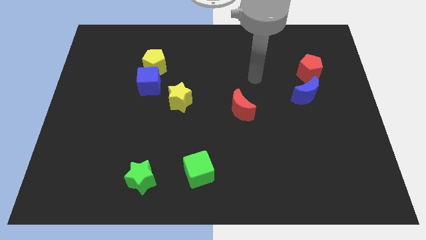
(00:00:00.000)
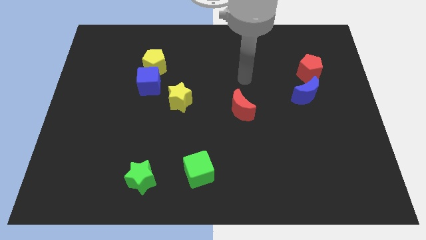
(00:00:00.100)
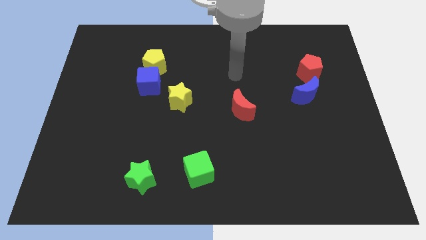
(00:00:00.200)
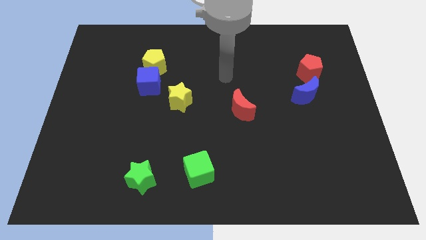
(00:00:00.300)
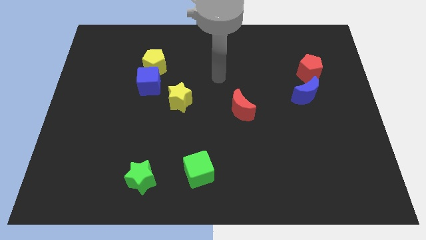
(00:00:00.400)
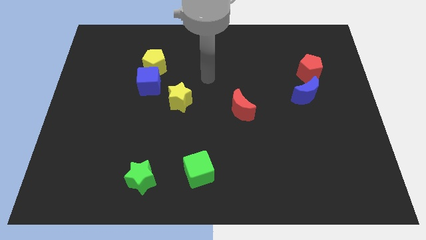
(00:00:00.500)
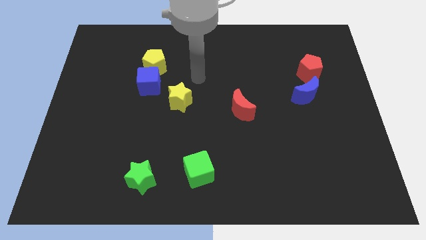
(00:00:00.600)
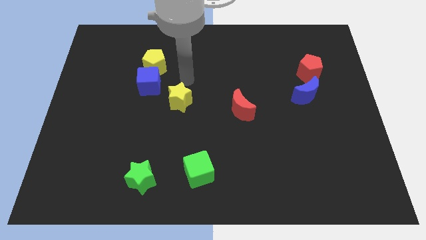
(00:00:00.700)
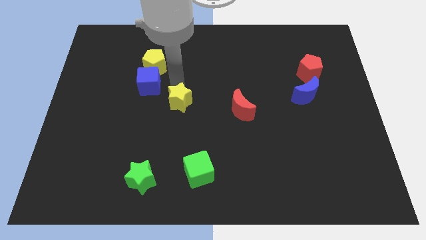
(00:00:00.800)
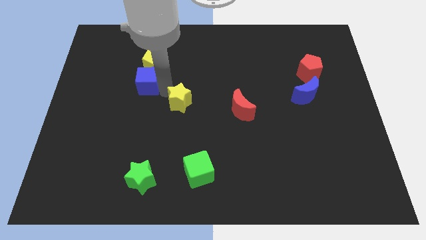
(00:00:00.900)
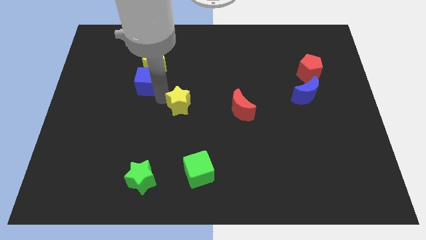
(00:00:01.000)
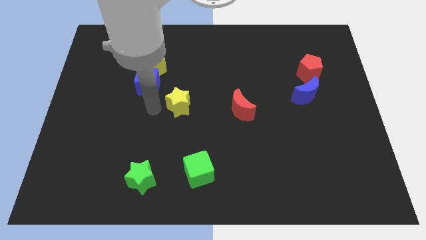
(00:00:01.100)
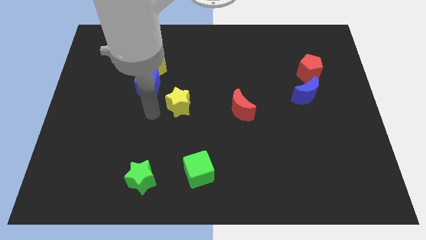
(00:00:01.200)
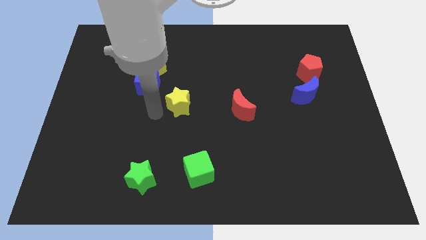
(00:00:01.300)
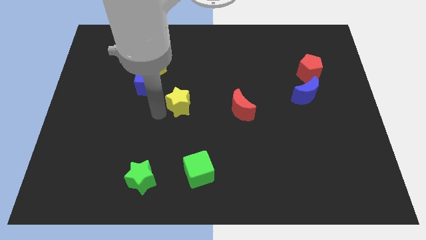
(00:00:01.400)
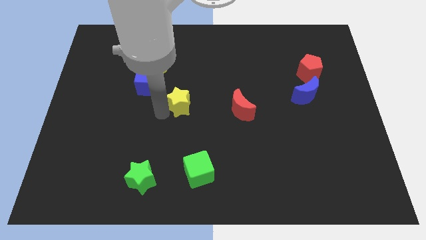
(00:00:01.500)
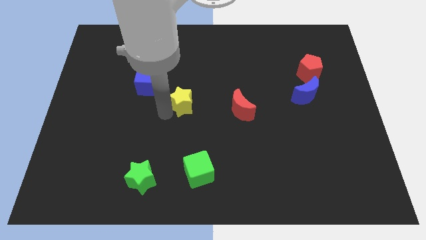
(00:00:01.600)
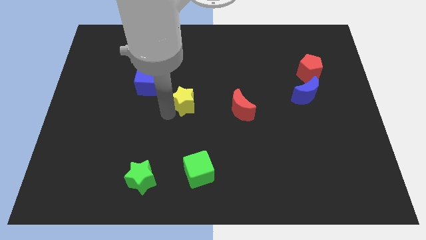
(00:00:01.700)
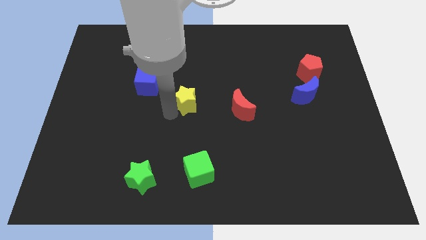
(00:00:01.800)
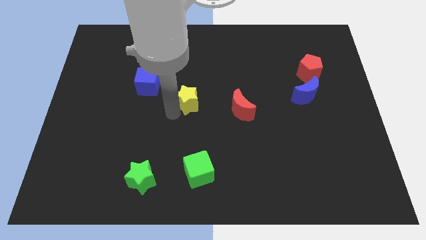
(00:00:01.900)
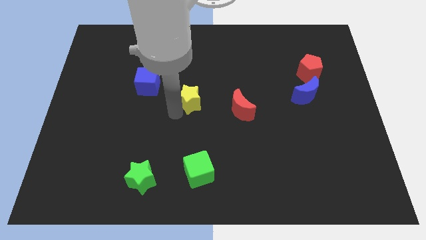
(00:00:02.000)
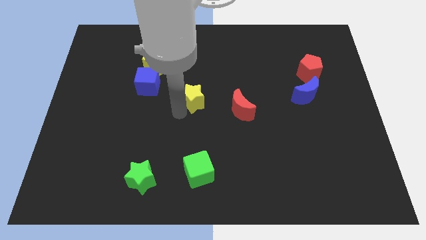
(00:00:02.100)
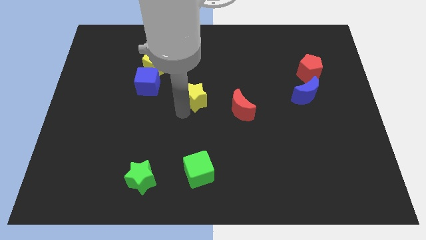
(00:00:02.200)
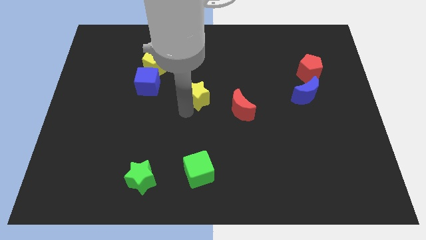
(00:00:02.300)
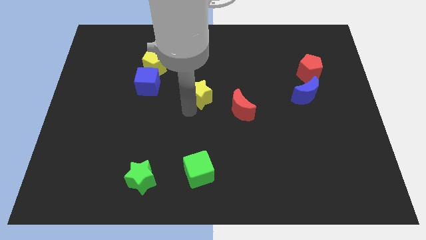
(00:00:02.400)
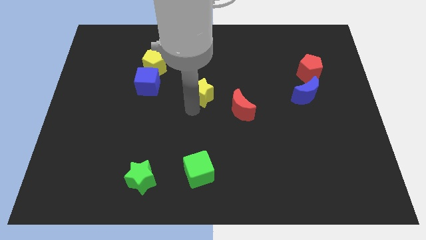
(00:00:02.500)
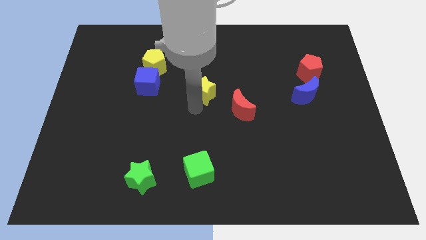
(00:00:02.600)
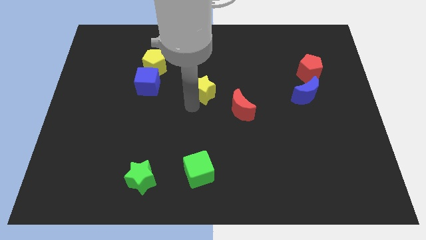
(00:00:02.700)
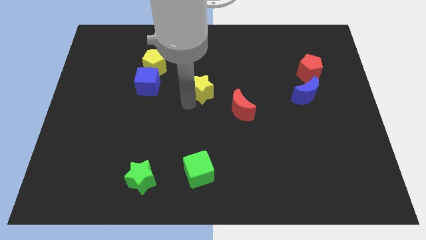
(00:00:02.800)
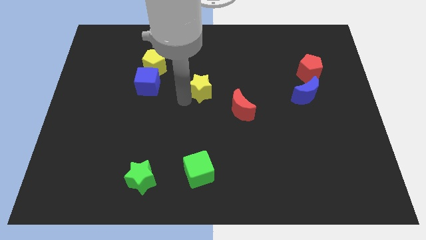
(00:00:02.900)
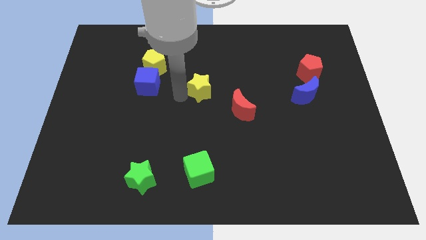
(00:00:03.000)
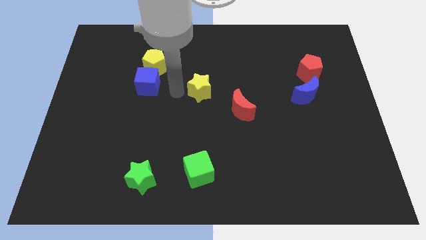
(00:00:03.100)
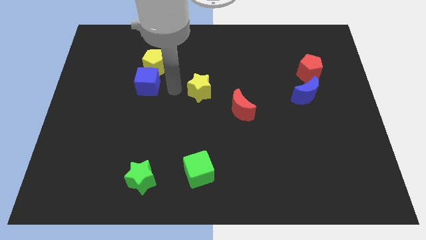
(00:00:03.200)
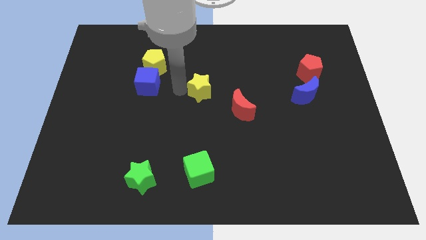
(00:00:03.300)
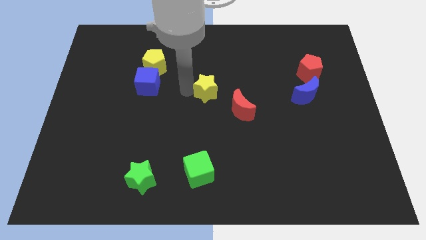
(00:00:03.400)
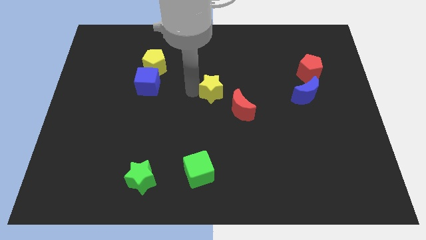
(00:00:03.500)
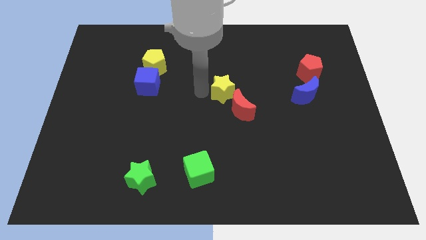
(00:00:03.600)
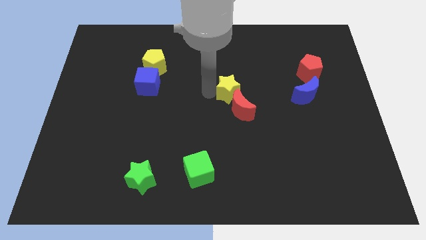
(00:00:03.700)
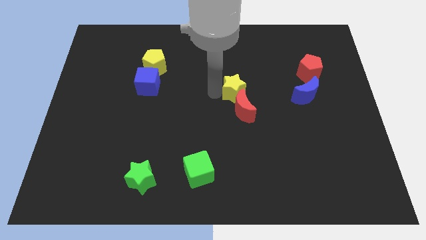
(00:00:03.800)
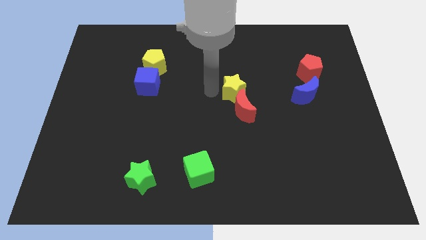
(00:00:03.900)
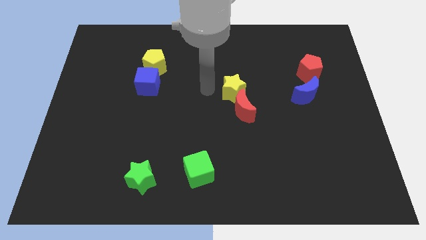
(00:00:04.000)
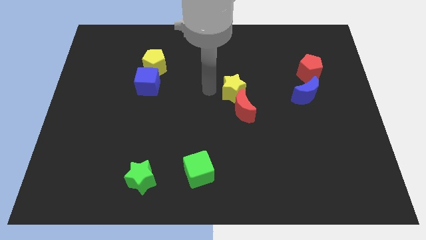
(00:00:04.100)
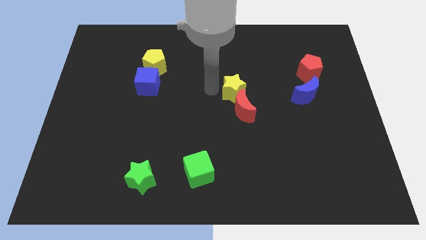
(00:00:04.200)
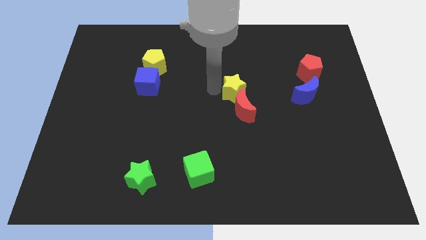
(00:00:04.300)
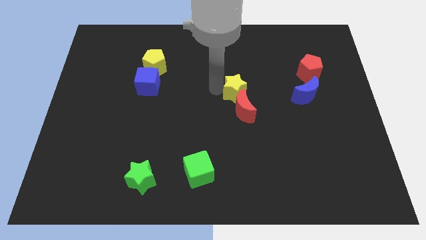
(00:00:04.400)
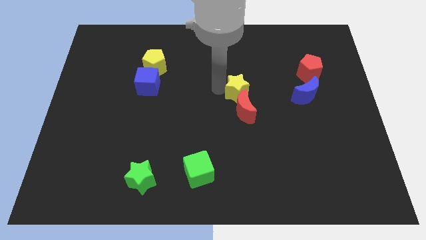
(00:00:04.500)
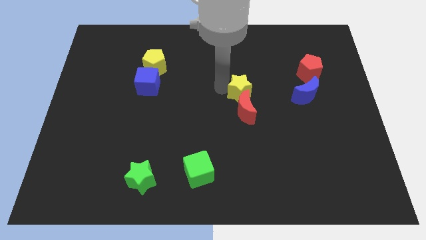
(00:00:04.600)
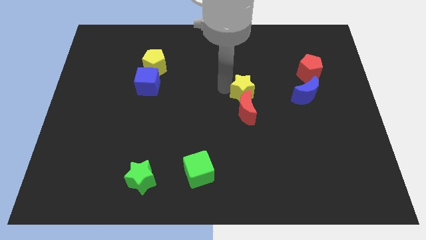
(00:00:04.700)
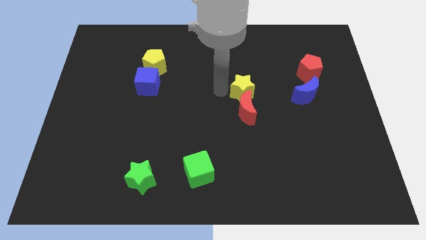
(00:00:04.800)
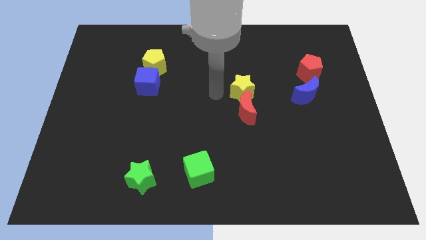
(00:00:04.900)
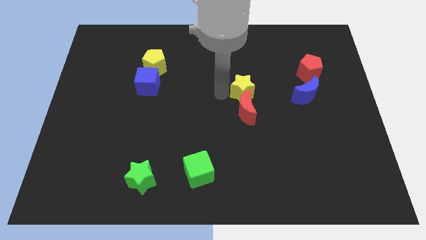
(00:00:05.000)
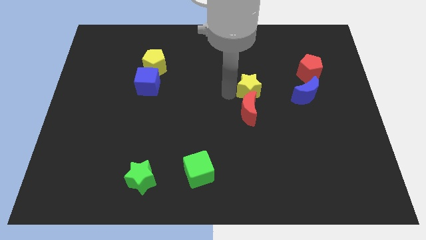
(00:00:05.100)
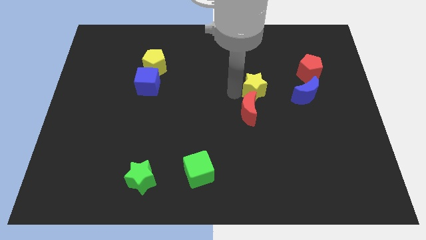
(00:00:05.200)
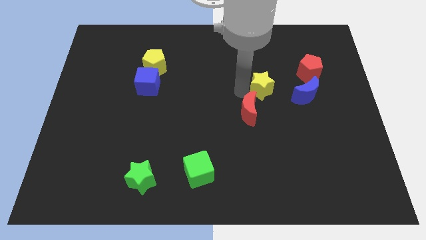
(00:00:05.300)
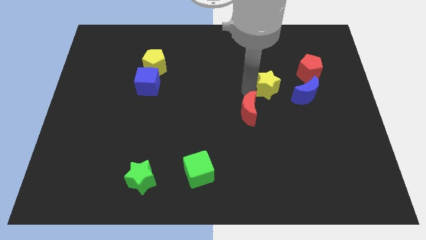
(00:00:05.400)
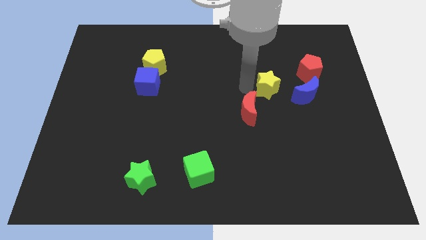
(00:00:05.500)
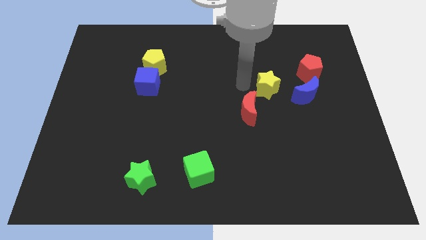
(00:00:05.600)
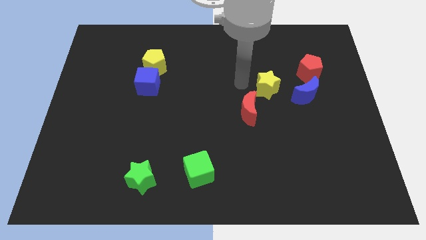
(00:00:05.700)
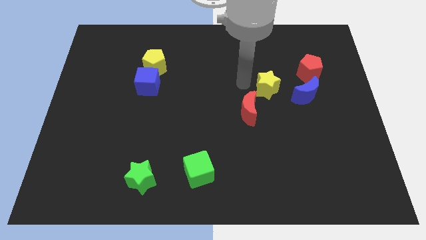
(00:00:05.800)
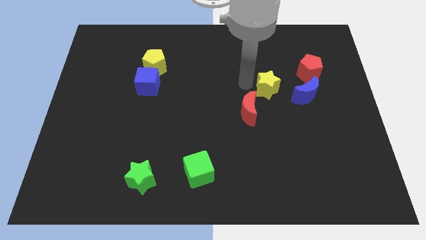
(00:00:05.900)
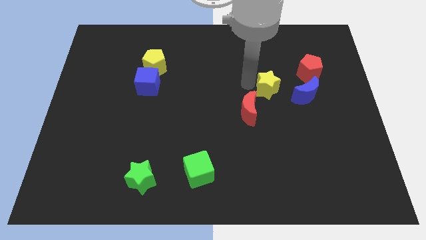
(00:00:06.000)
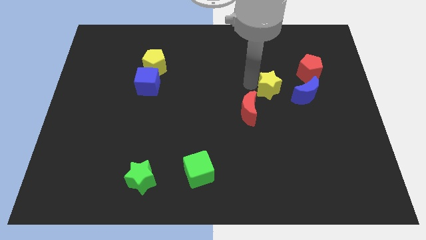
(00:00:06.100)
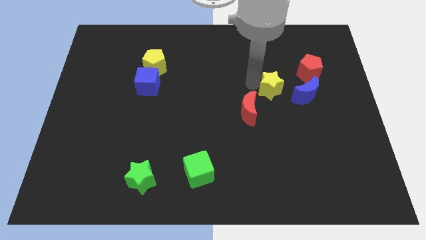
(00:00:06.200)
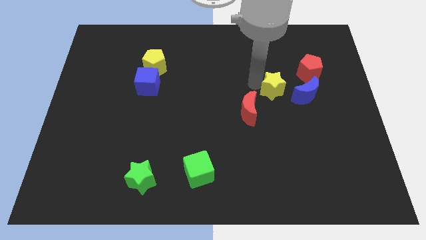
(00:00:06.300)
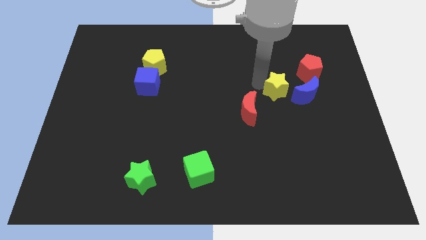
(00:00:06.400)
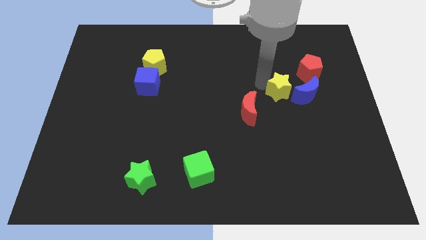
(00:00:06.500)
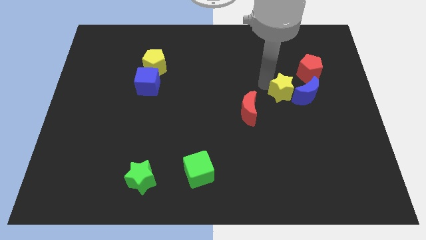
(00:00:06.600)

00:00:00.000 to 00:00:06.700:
slide the yellow star close to the blue moon

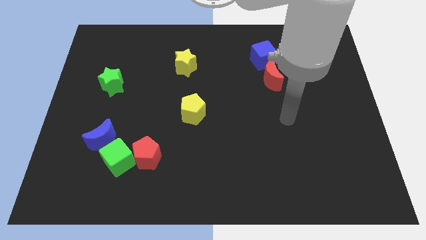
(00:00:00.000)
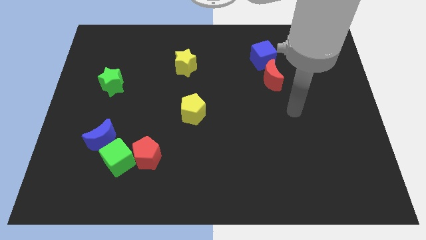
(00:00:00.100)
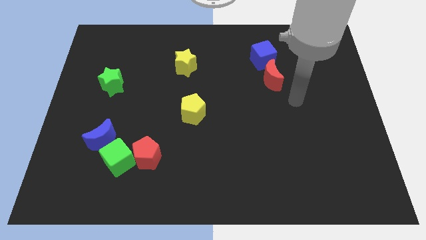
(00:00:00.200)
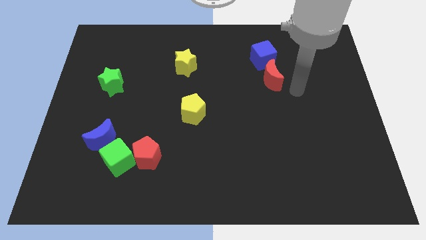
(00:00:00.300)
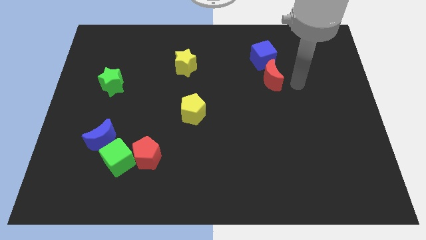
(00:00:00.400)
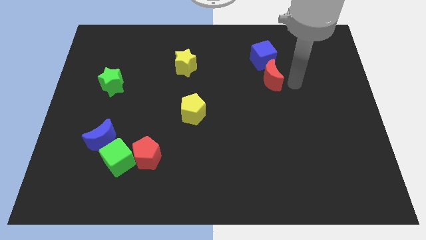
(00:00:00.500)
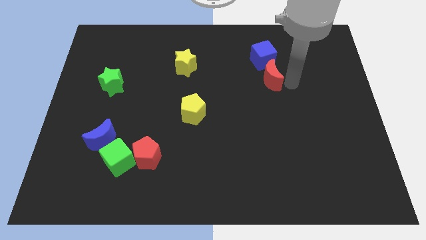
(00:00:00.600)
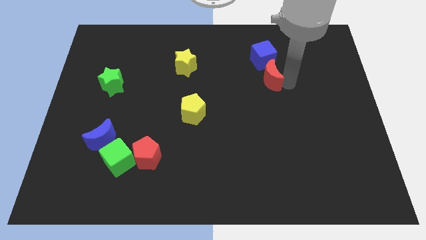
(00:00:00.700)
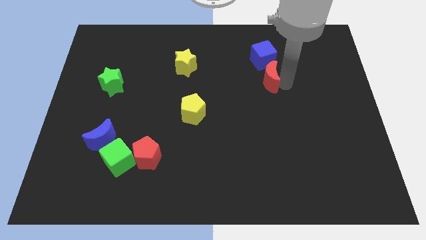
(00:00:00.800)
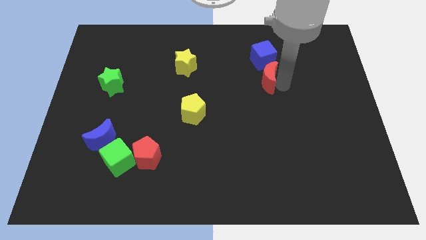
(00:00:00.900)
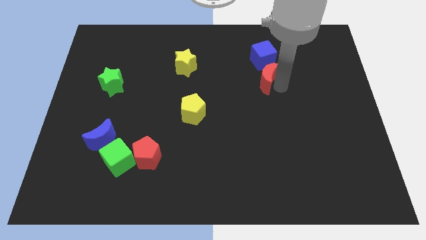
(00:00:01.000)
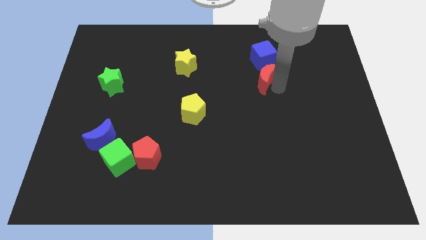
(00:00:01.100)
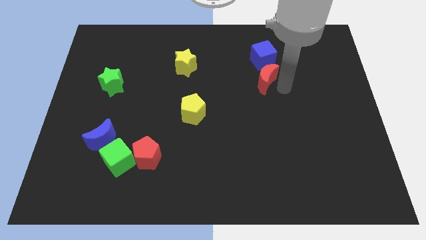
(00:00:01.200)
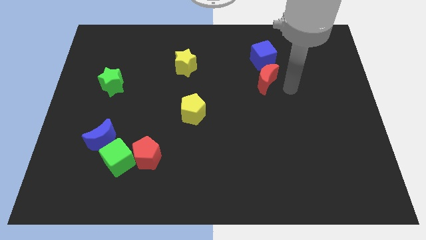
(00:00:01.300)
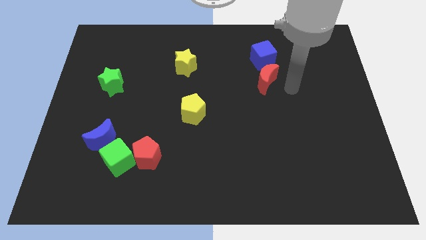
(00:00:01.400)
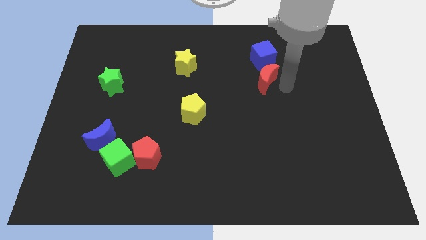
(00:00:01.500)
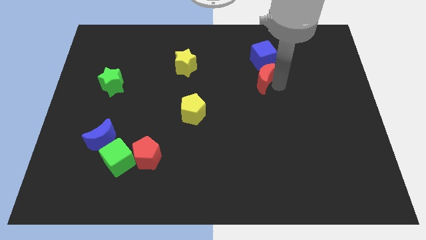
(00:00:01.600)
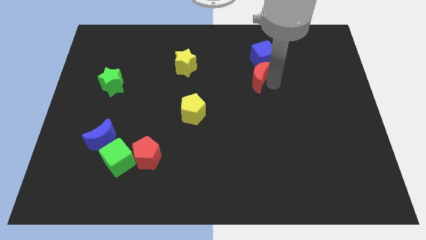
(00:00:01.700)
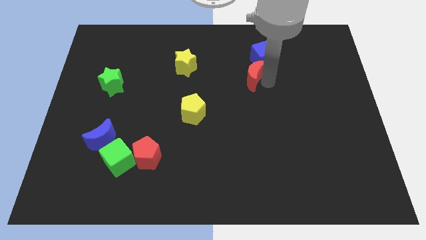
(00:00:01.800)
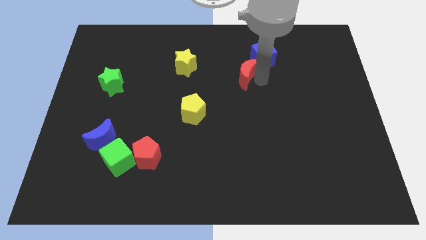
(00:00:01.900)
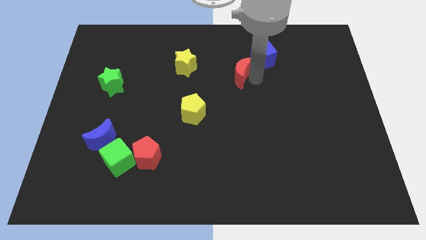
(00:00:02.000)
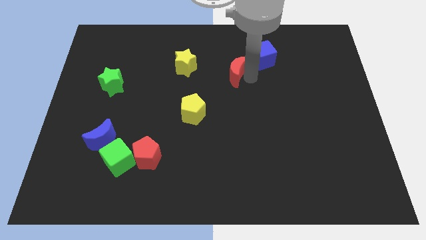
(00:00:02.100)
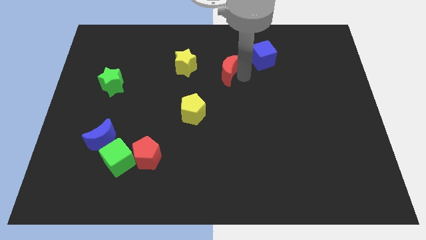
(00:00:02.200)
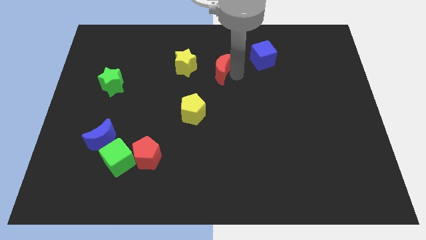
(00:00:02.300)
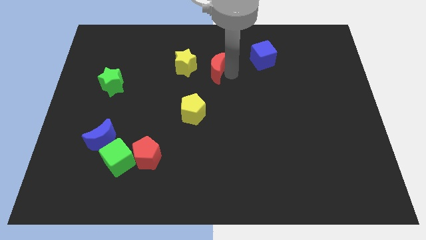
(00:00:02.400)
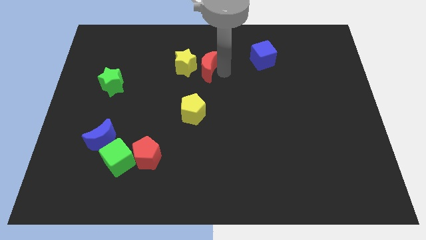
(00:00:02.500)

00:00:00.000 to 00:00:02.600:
push the red moon close to the yellow star
